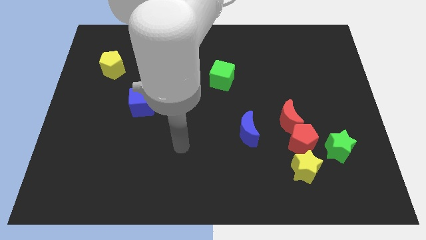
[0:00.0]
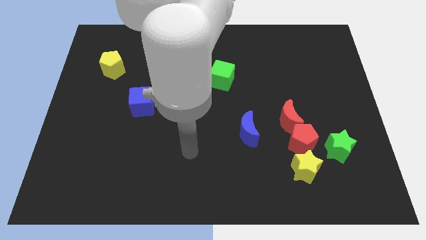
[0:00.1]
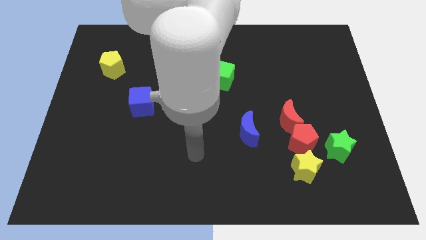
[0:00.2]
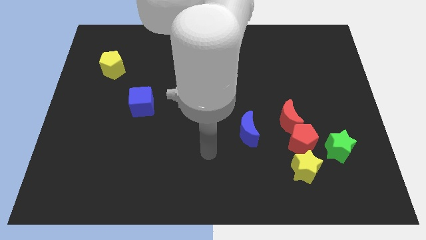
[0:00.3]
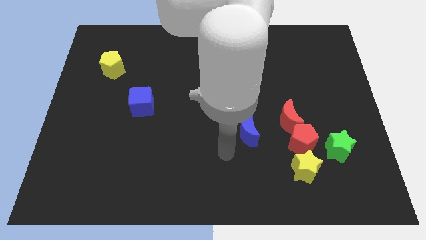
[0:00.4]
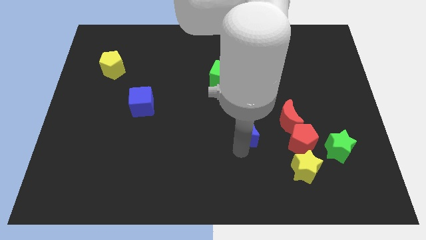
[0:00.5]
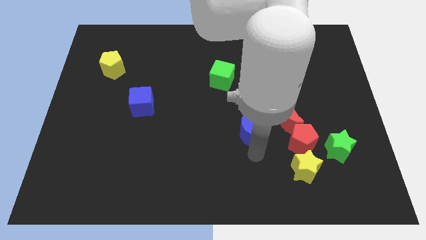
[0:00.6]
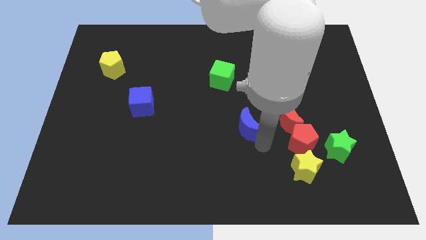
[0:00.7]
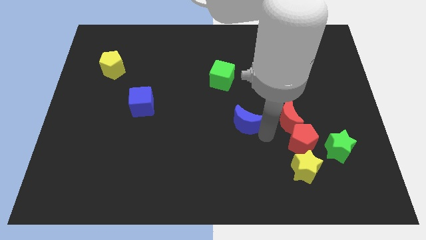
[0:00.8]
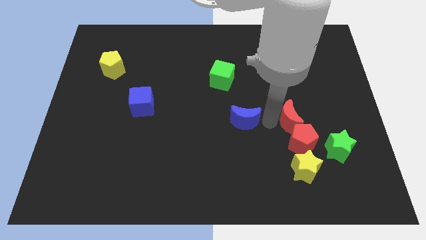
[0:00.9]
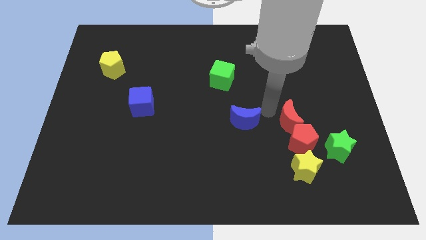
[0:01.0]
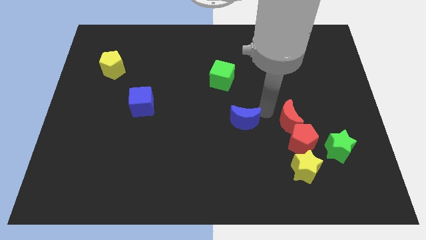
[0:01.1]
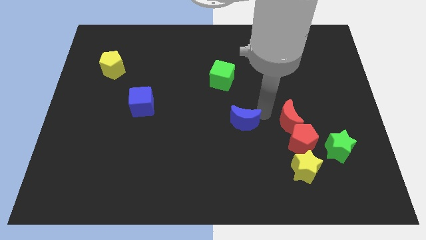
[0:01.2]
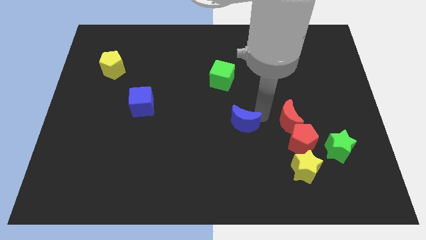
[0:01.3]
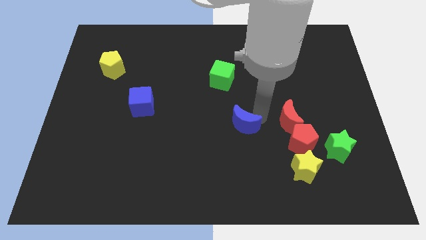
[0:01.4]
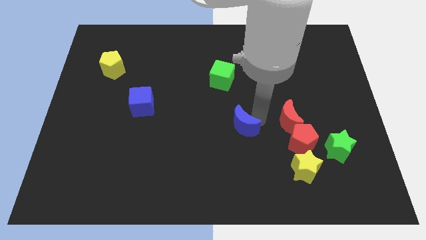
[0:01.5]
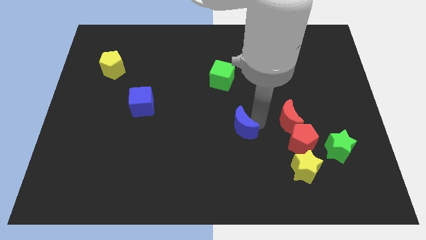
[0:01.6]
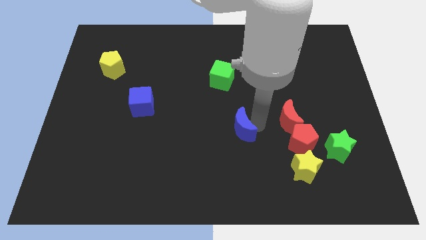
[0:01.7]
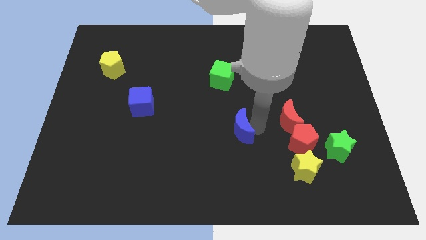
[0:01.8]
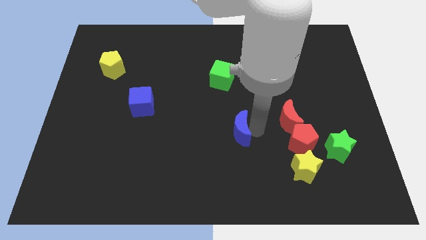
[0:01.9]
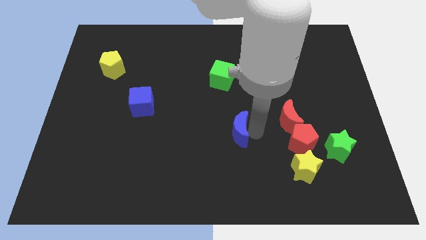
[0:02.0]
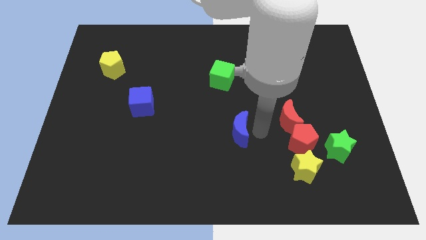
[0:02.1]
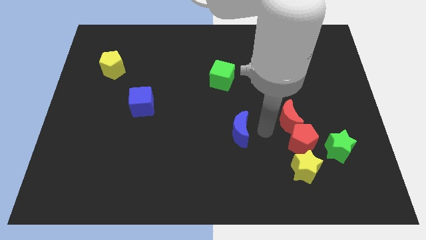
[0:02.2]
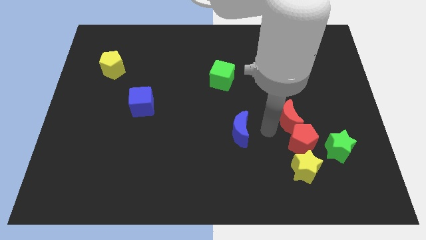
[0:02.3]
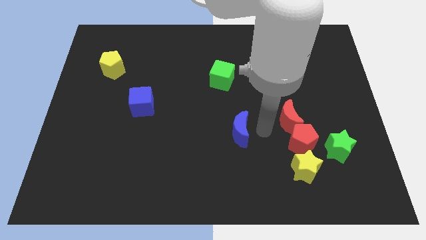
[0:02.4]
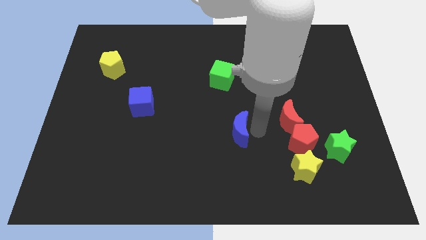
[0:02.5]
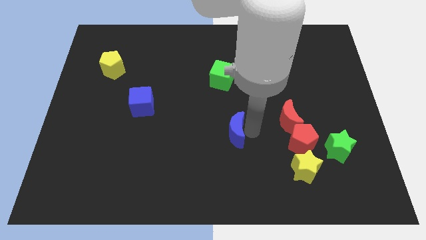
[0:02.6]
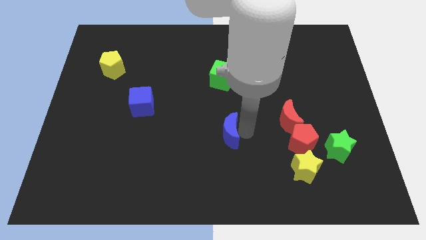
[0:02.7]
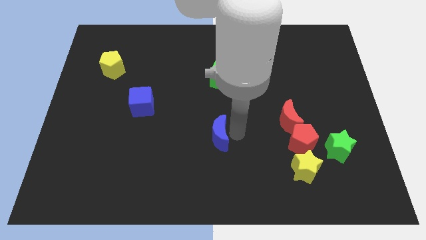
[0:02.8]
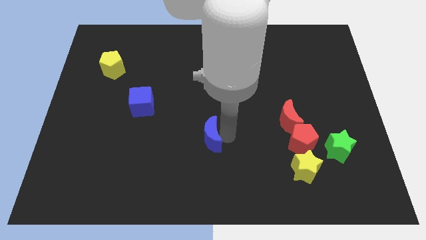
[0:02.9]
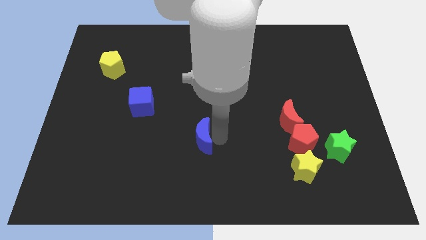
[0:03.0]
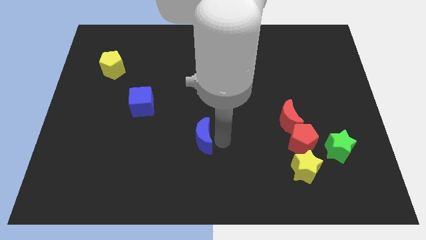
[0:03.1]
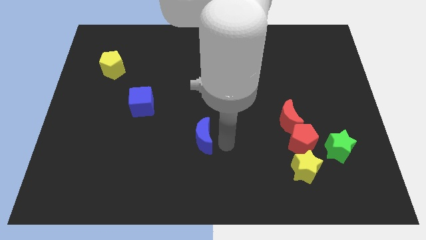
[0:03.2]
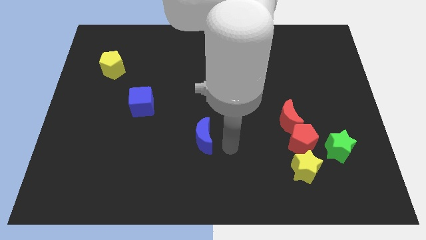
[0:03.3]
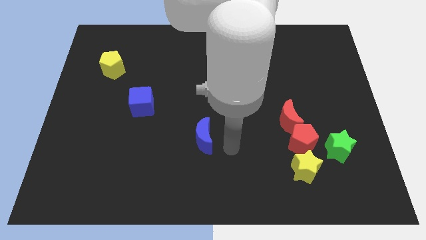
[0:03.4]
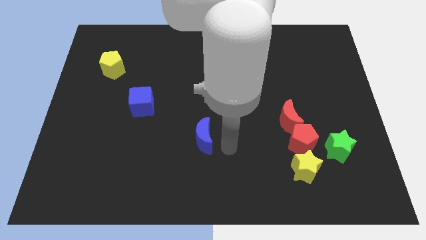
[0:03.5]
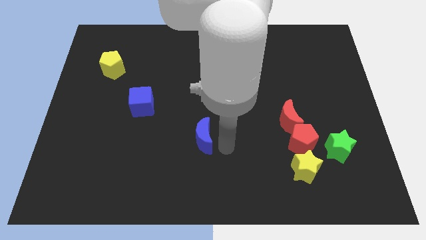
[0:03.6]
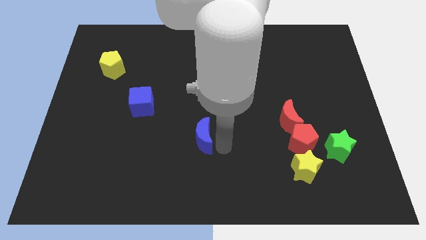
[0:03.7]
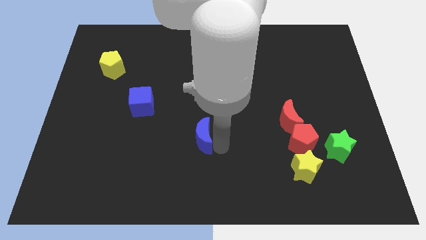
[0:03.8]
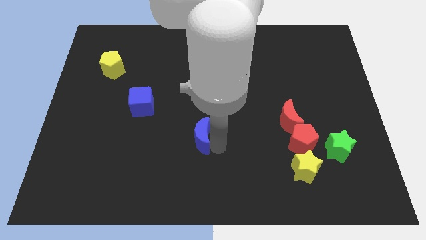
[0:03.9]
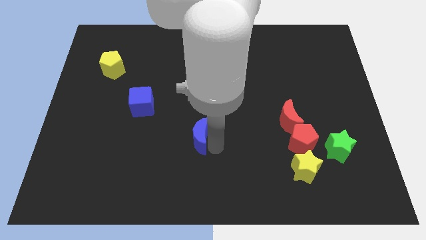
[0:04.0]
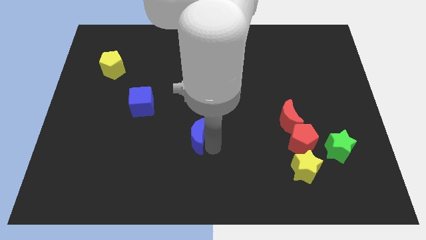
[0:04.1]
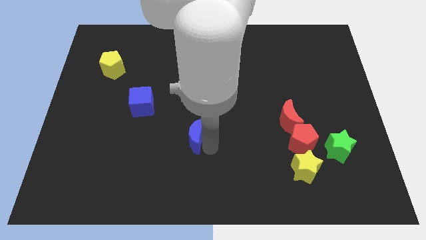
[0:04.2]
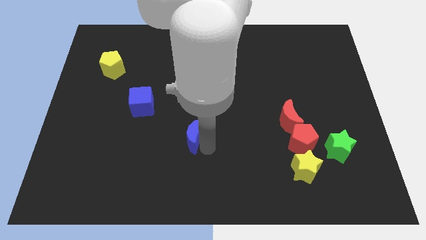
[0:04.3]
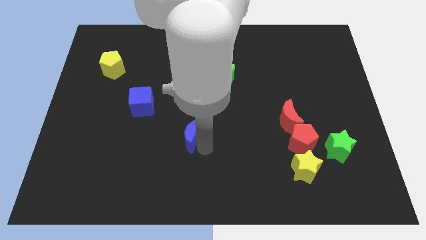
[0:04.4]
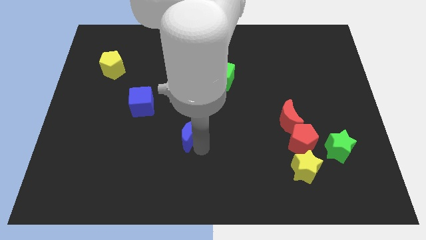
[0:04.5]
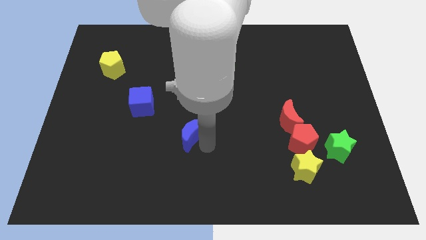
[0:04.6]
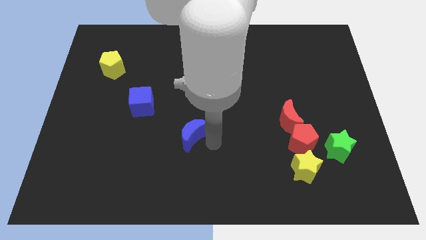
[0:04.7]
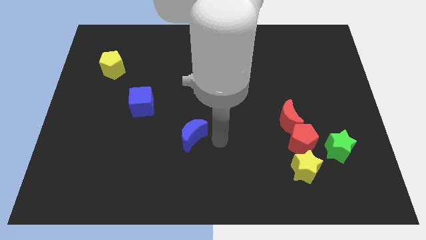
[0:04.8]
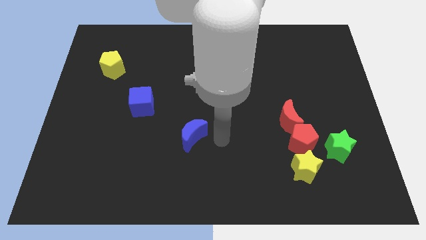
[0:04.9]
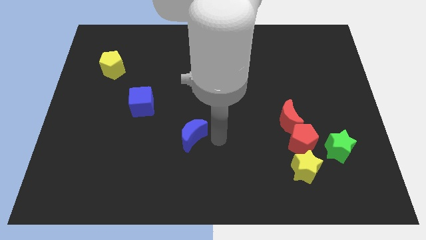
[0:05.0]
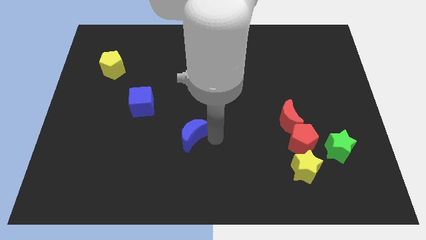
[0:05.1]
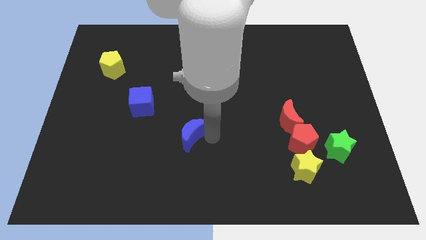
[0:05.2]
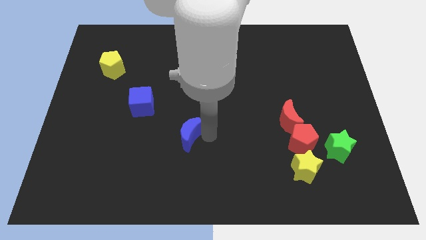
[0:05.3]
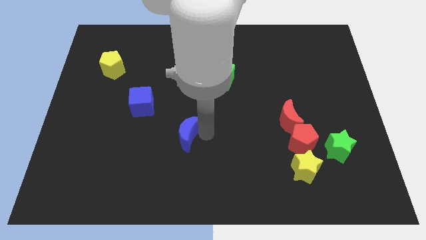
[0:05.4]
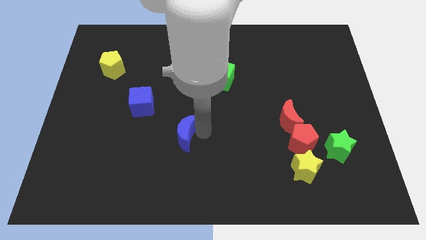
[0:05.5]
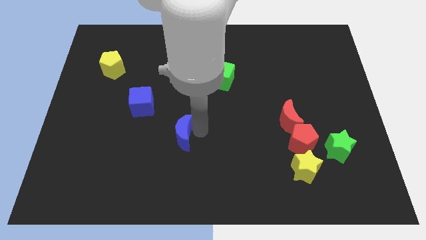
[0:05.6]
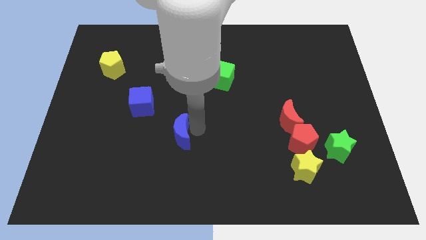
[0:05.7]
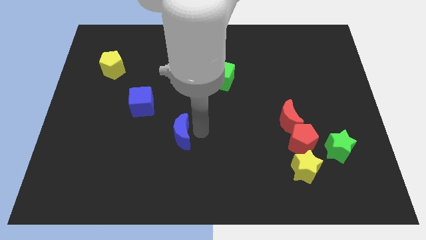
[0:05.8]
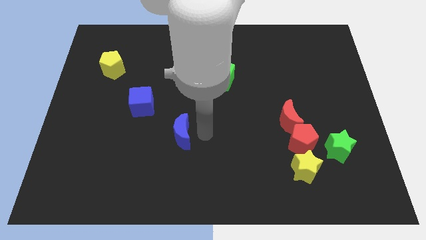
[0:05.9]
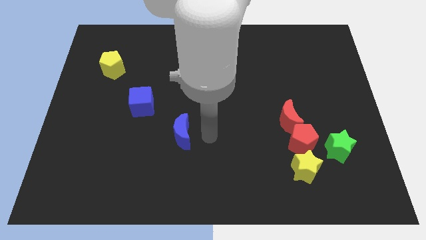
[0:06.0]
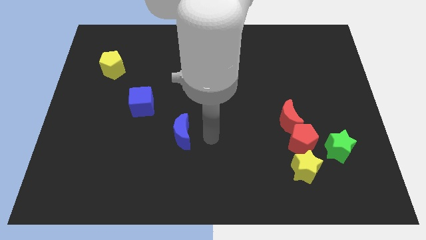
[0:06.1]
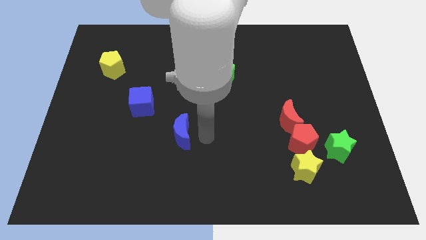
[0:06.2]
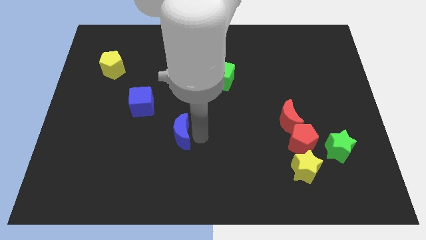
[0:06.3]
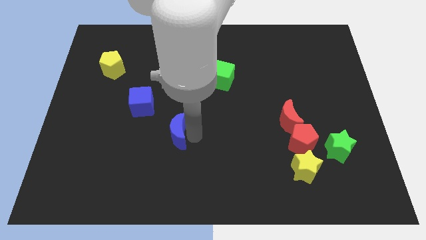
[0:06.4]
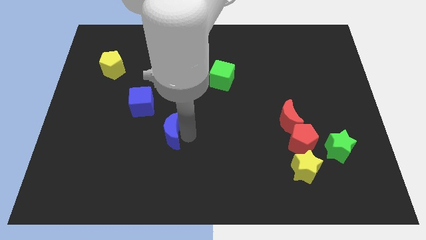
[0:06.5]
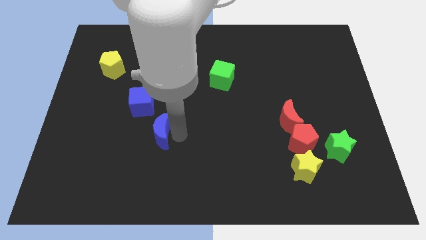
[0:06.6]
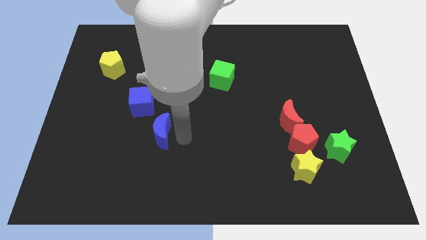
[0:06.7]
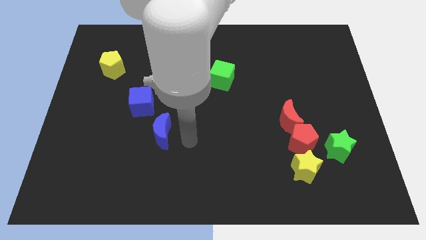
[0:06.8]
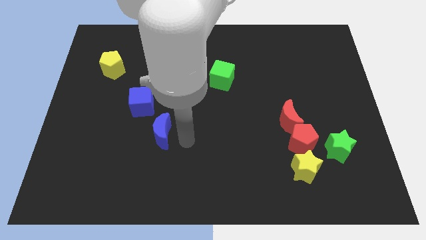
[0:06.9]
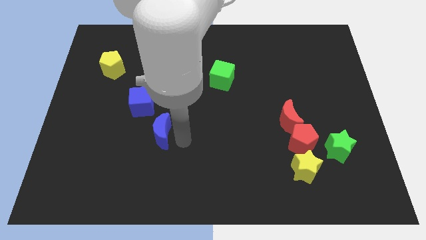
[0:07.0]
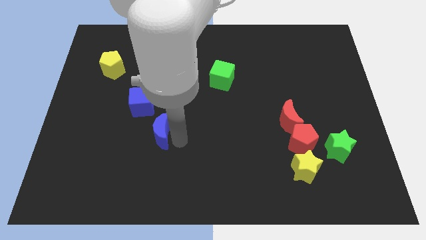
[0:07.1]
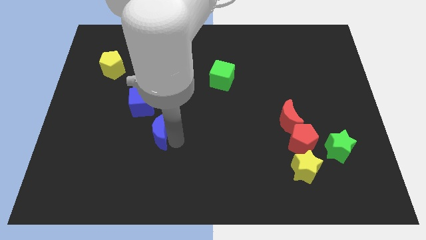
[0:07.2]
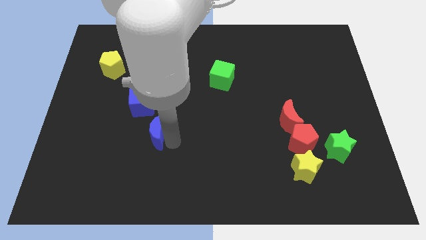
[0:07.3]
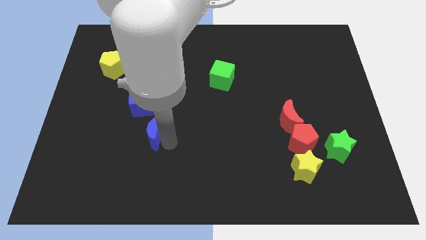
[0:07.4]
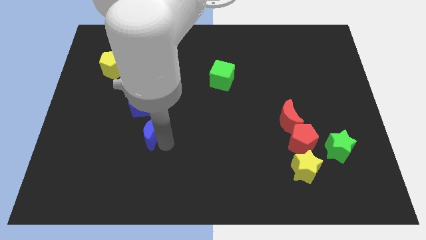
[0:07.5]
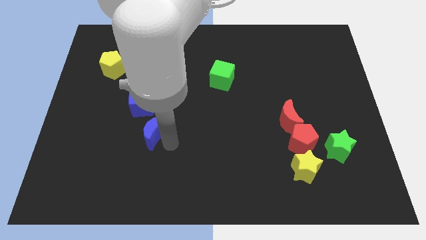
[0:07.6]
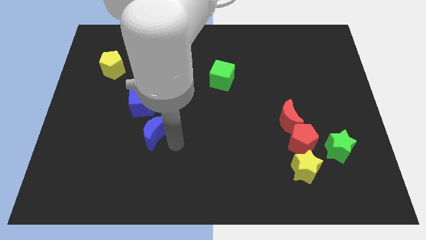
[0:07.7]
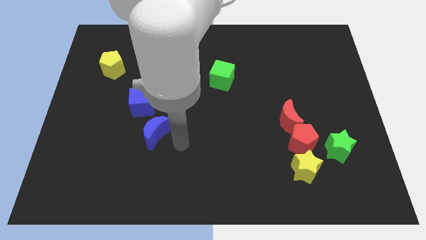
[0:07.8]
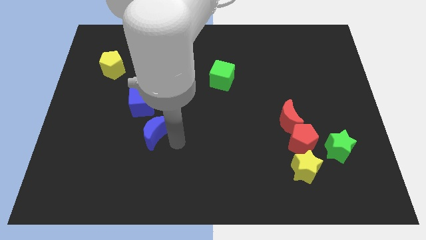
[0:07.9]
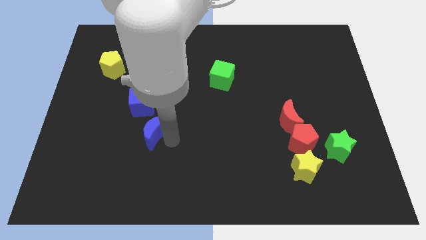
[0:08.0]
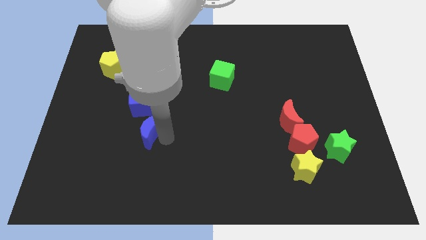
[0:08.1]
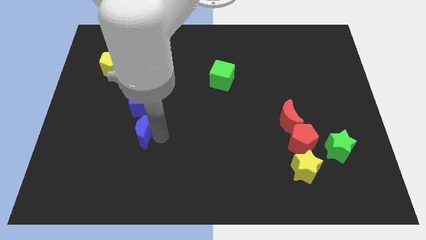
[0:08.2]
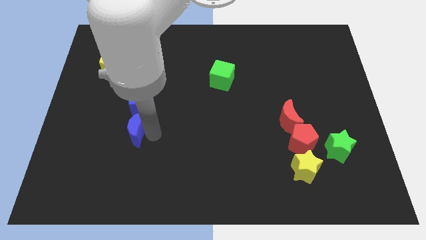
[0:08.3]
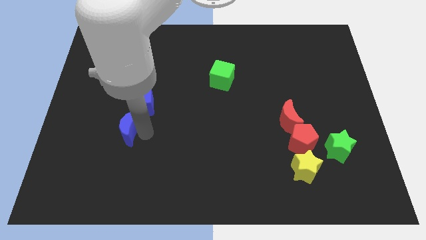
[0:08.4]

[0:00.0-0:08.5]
slide the blue moon to the bottom left side of the blue cube
